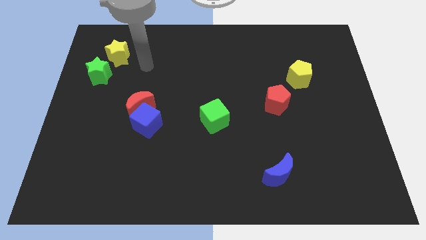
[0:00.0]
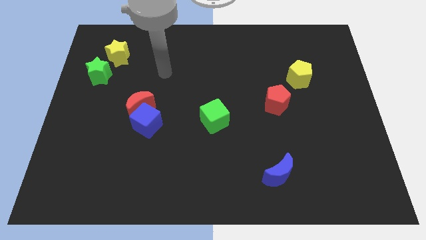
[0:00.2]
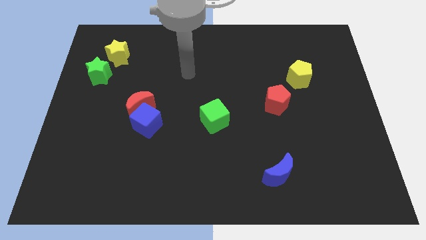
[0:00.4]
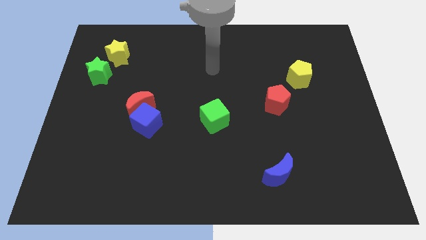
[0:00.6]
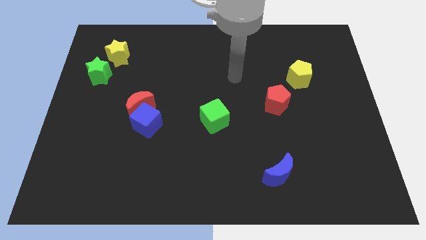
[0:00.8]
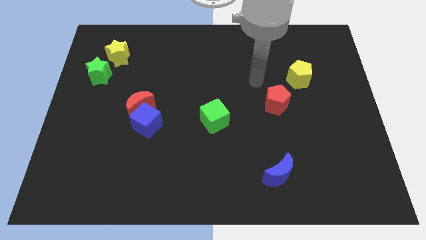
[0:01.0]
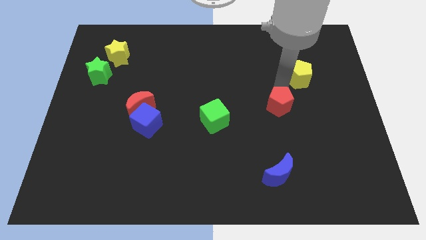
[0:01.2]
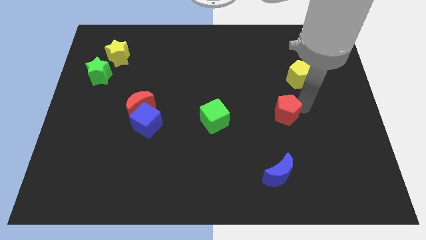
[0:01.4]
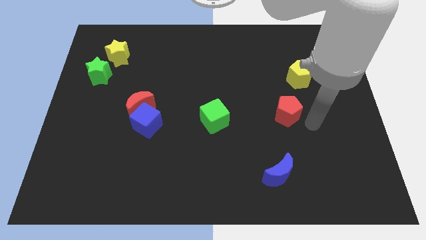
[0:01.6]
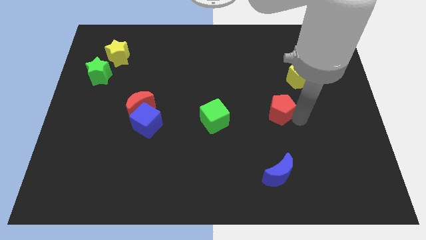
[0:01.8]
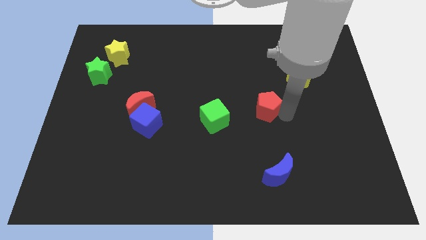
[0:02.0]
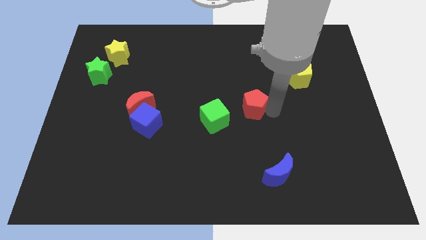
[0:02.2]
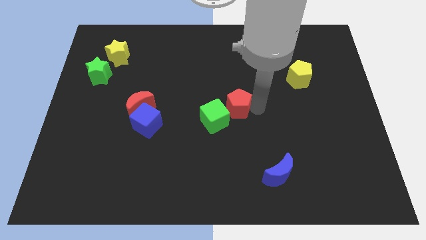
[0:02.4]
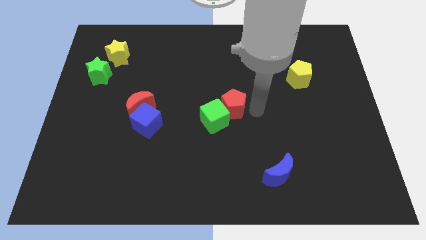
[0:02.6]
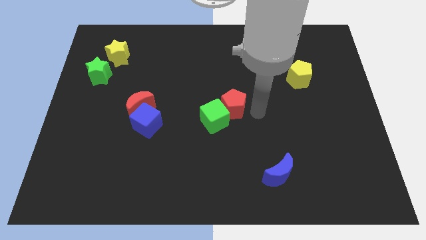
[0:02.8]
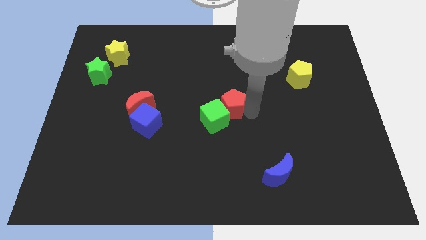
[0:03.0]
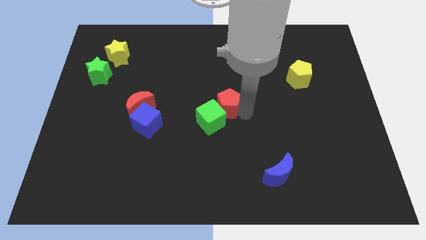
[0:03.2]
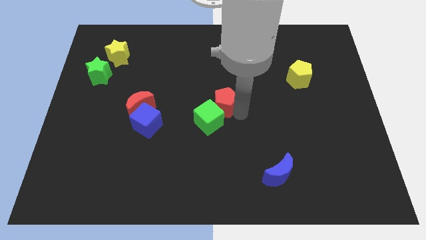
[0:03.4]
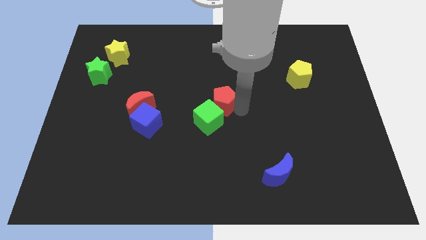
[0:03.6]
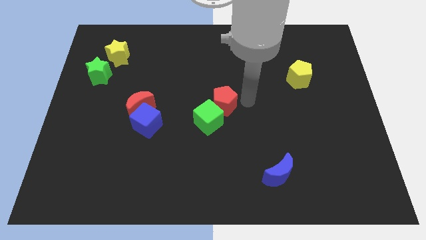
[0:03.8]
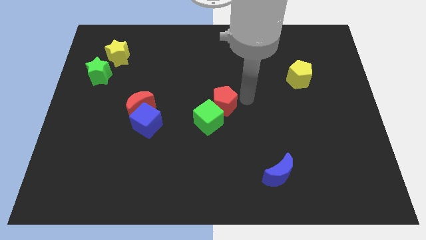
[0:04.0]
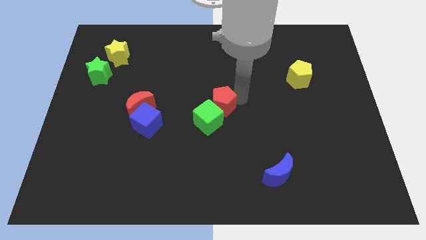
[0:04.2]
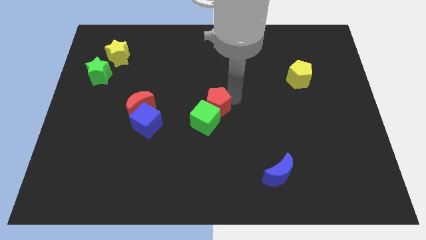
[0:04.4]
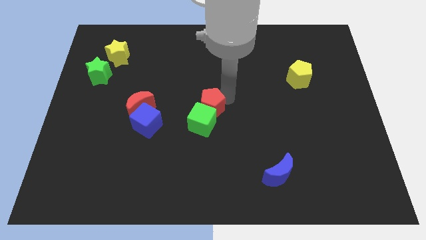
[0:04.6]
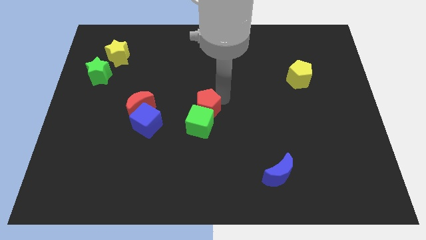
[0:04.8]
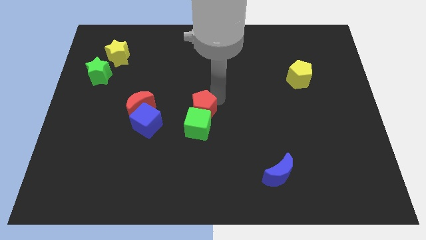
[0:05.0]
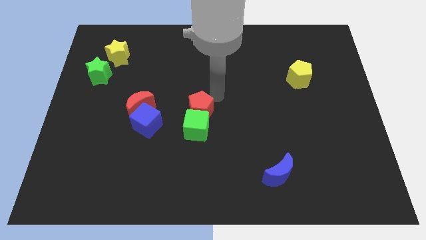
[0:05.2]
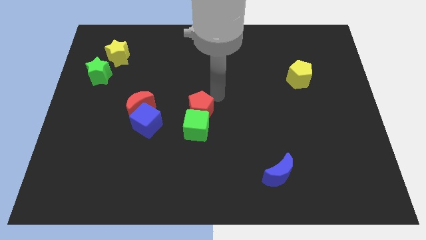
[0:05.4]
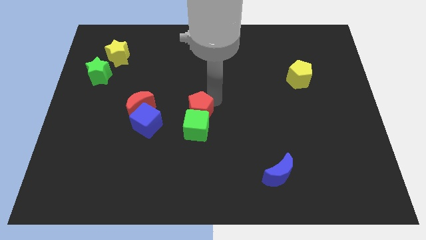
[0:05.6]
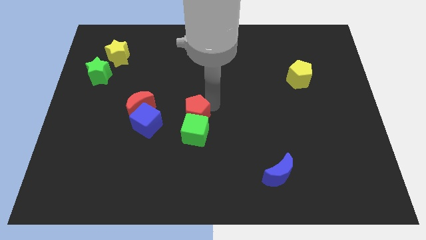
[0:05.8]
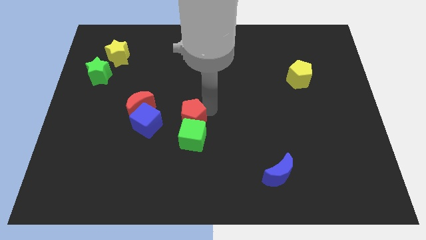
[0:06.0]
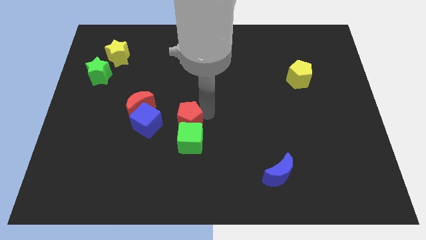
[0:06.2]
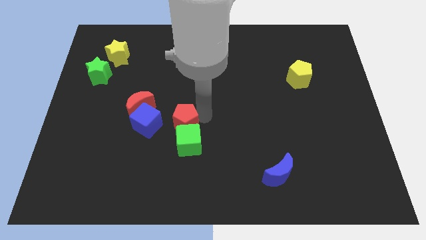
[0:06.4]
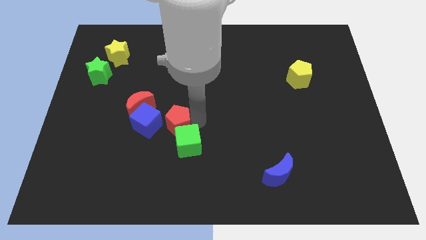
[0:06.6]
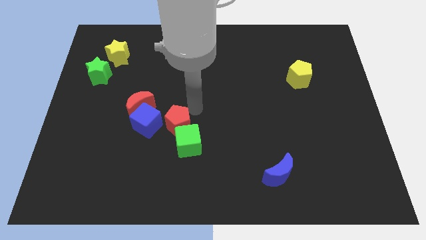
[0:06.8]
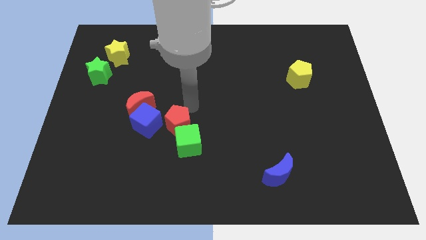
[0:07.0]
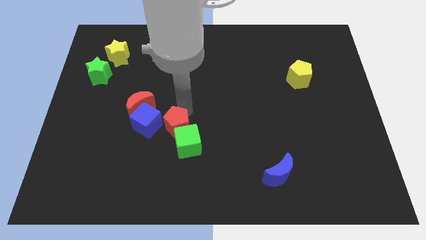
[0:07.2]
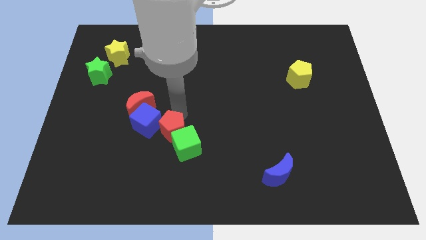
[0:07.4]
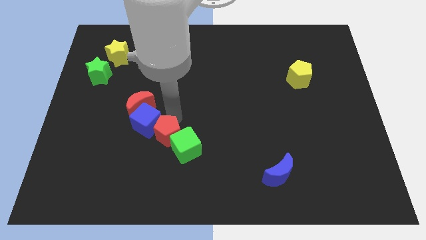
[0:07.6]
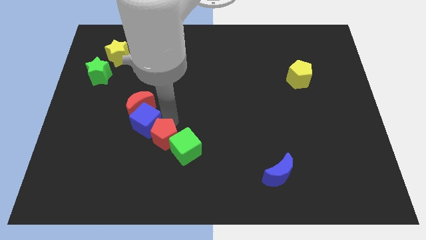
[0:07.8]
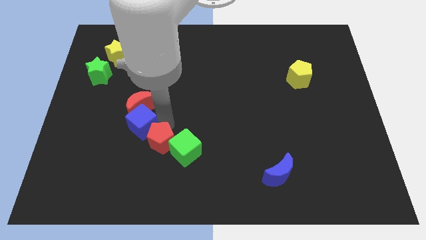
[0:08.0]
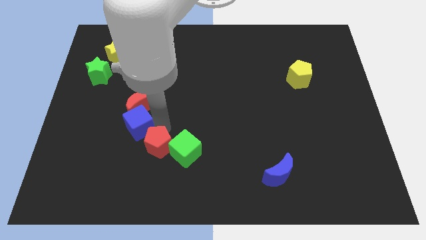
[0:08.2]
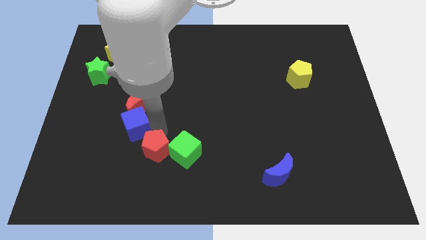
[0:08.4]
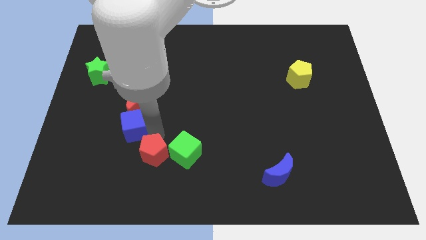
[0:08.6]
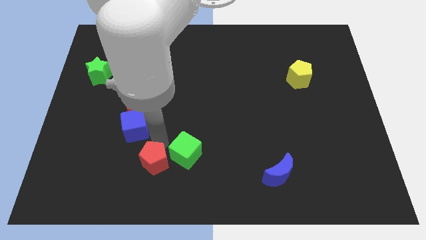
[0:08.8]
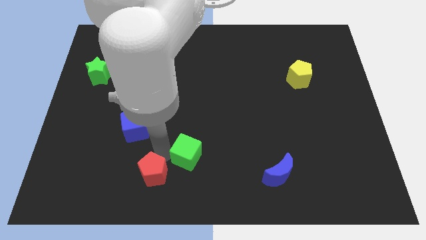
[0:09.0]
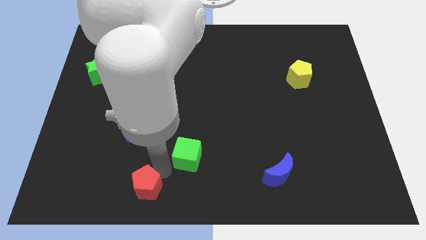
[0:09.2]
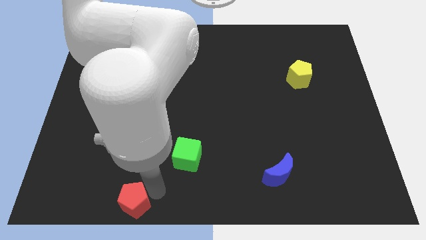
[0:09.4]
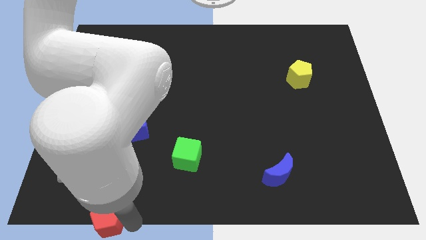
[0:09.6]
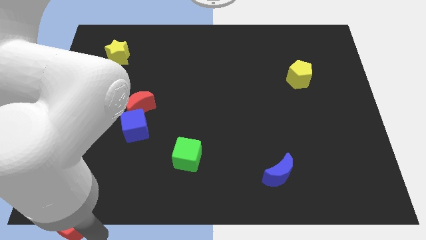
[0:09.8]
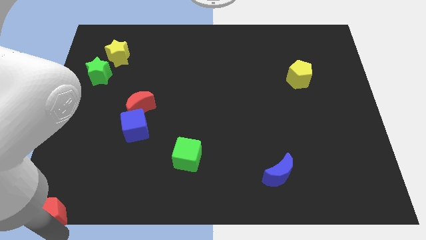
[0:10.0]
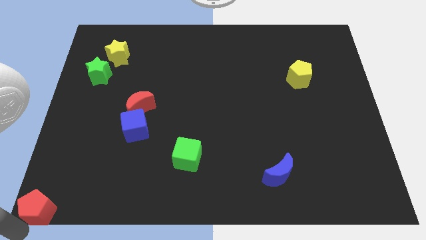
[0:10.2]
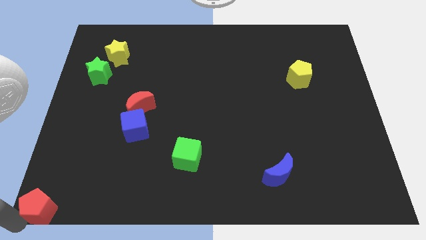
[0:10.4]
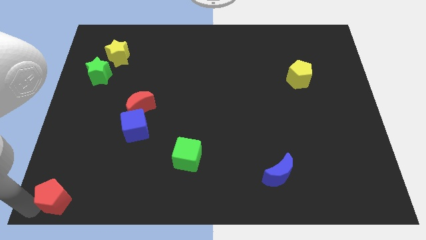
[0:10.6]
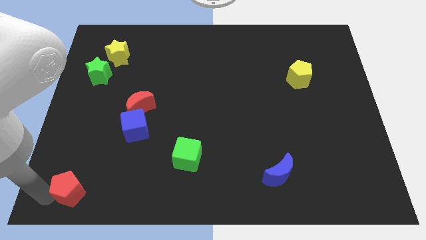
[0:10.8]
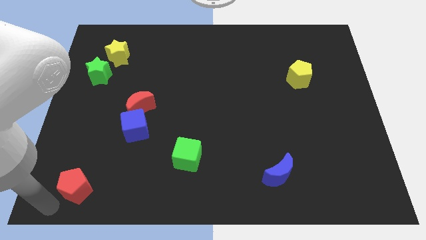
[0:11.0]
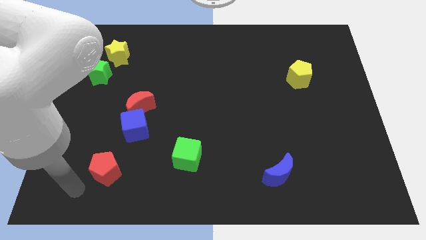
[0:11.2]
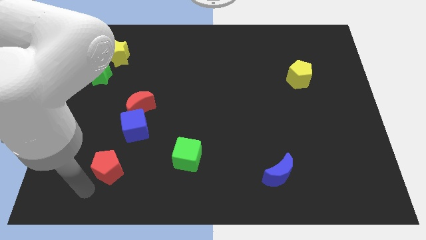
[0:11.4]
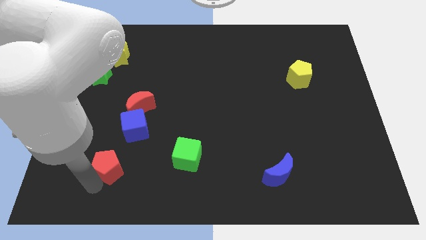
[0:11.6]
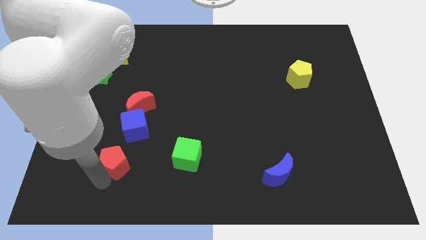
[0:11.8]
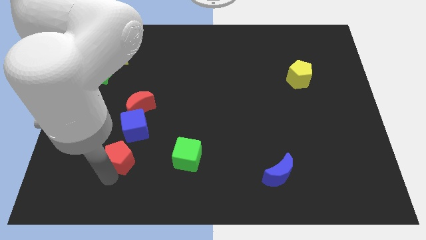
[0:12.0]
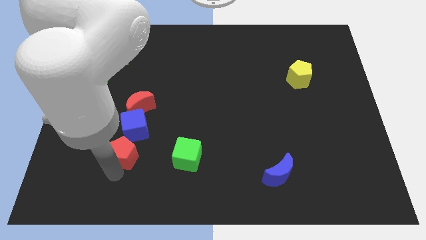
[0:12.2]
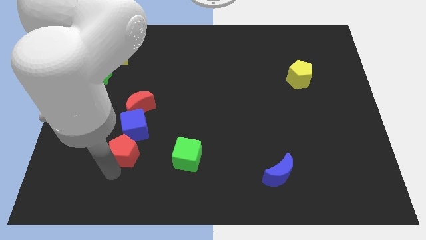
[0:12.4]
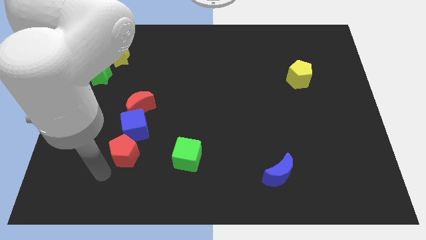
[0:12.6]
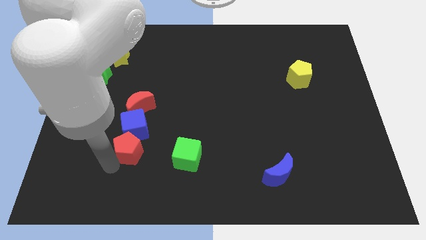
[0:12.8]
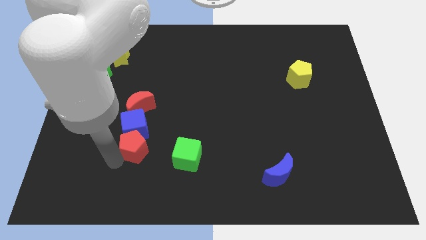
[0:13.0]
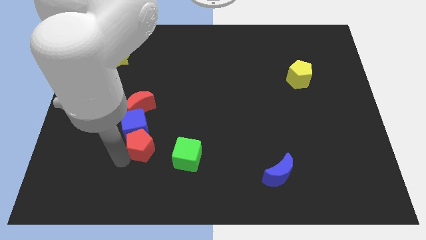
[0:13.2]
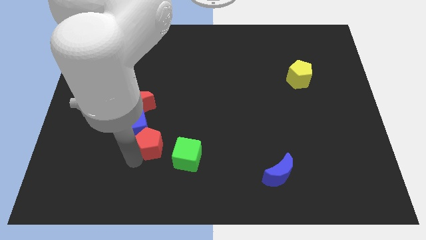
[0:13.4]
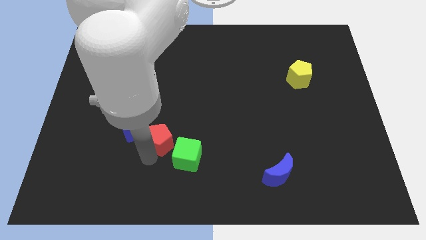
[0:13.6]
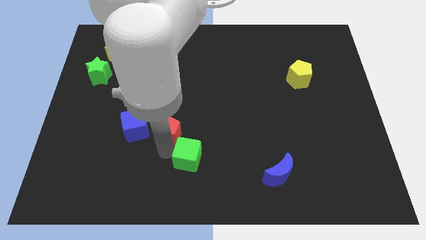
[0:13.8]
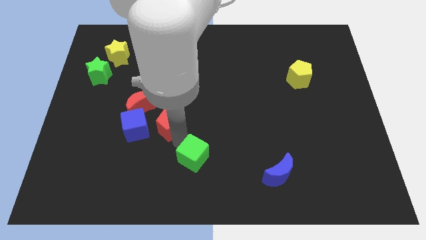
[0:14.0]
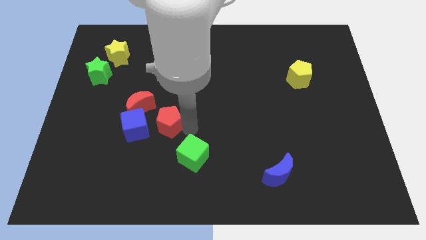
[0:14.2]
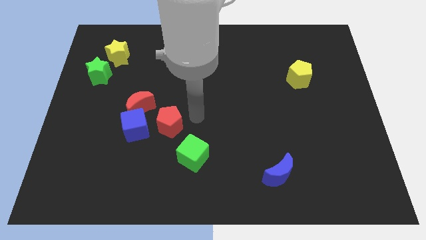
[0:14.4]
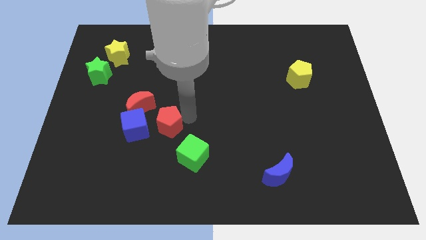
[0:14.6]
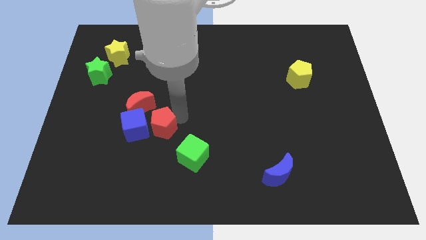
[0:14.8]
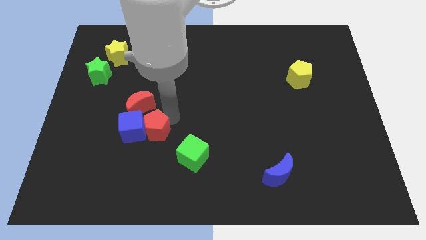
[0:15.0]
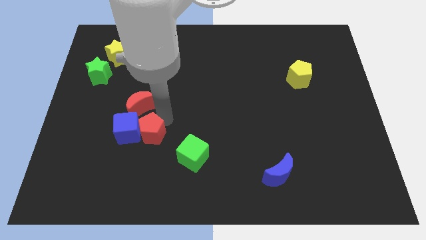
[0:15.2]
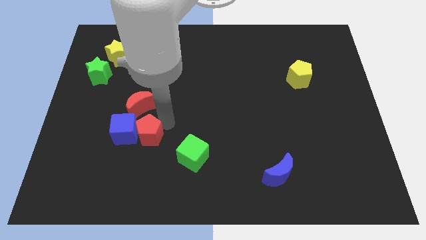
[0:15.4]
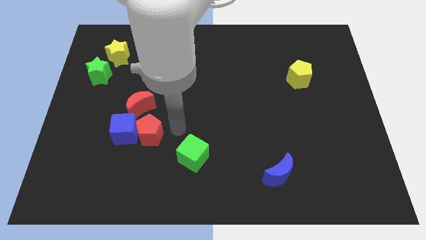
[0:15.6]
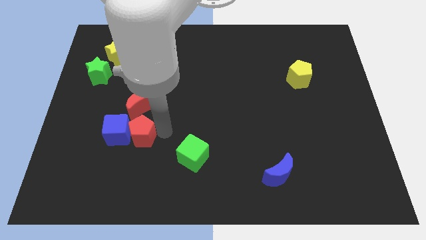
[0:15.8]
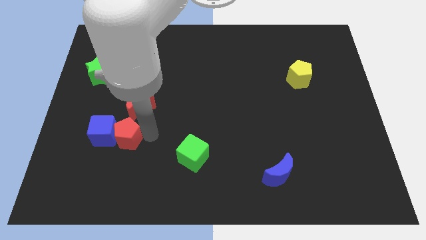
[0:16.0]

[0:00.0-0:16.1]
put the red pentagon to the bottom left of the red moon
